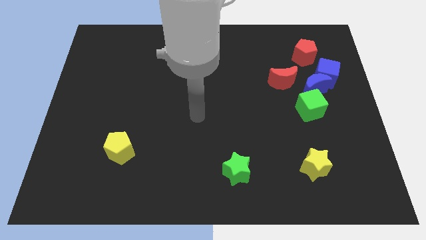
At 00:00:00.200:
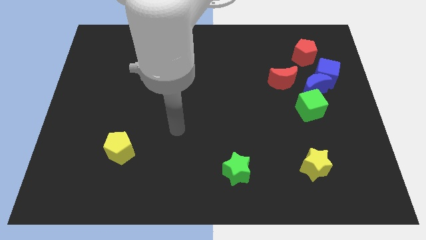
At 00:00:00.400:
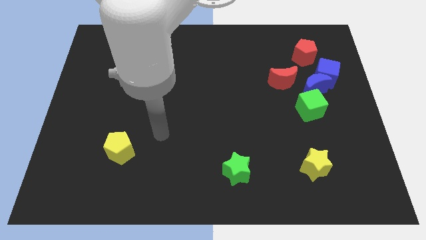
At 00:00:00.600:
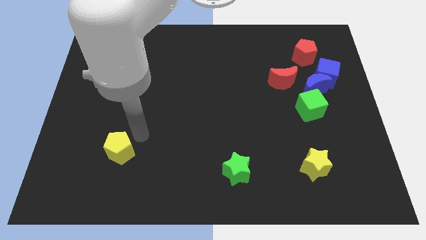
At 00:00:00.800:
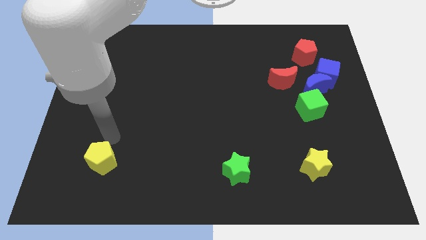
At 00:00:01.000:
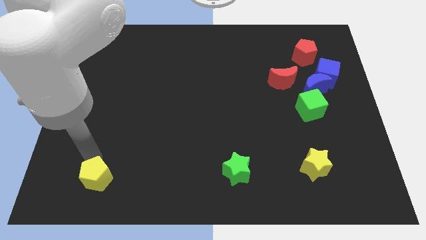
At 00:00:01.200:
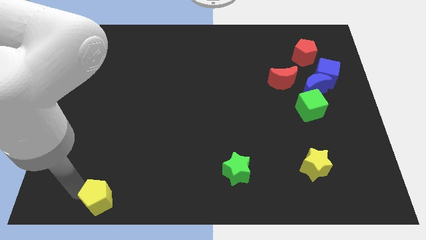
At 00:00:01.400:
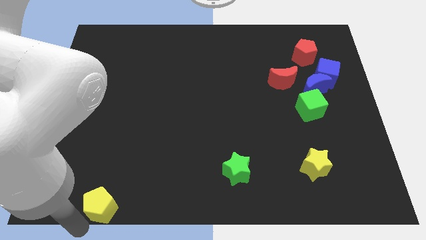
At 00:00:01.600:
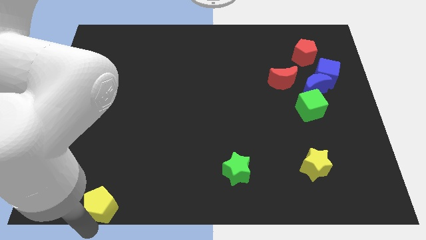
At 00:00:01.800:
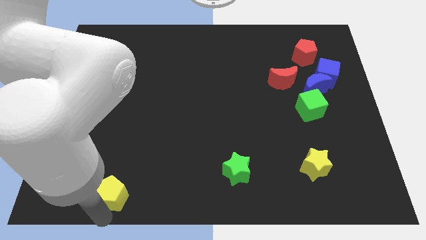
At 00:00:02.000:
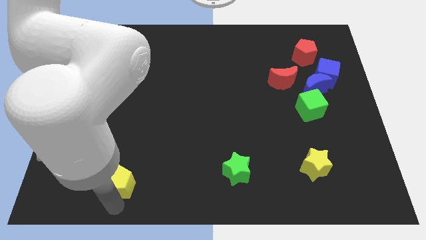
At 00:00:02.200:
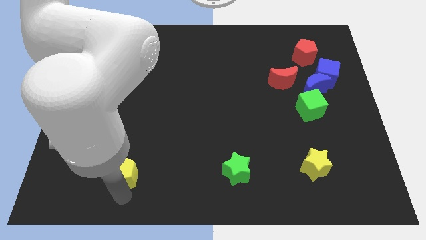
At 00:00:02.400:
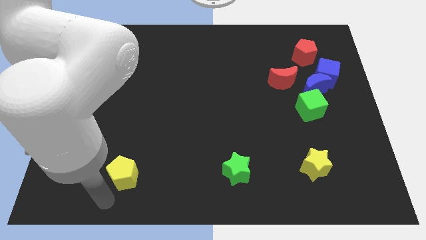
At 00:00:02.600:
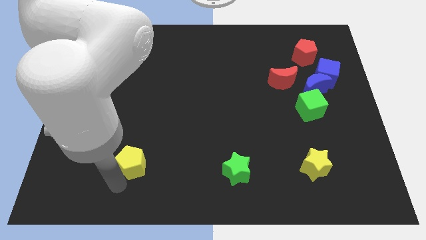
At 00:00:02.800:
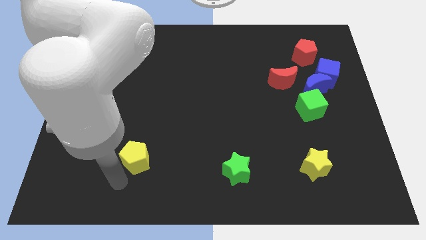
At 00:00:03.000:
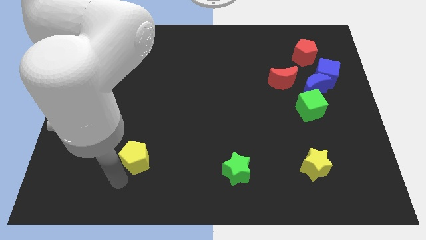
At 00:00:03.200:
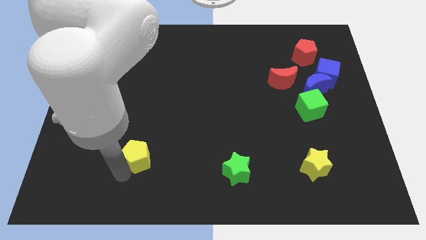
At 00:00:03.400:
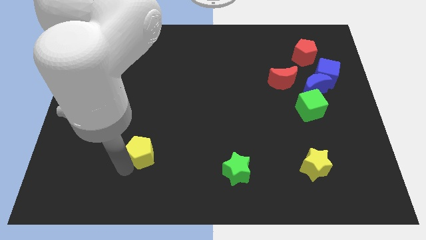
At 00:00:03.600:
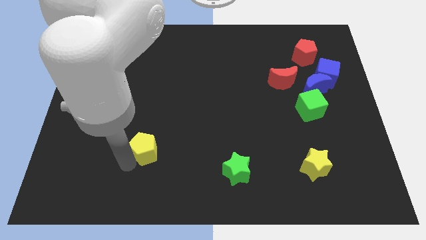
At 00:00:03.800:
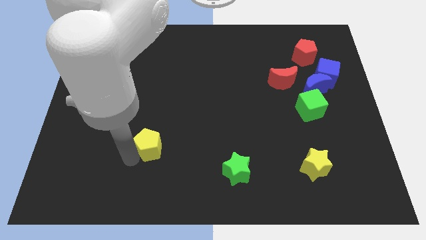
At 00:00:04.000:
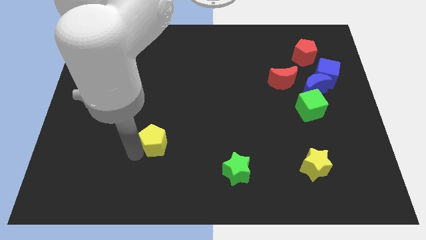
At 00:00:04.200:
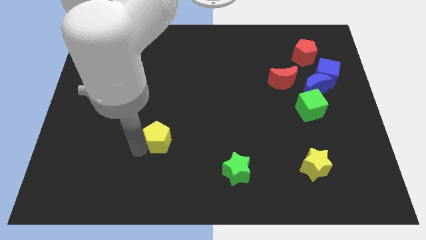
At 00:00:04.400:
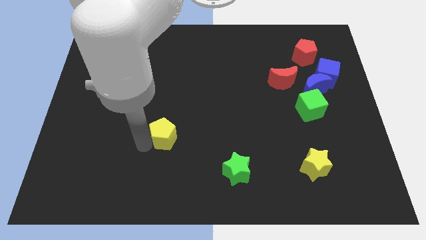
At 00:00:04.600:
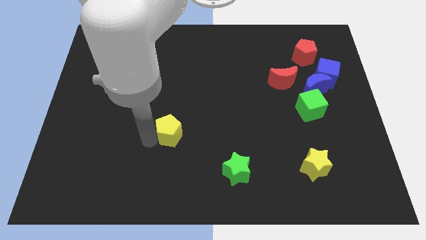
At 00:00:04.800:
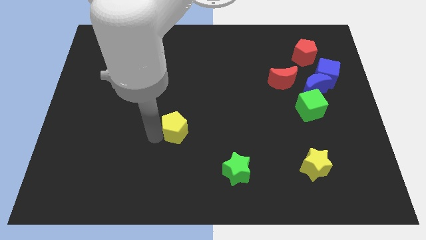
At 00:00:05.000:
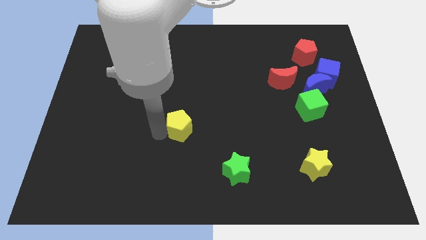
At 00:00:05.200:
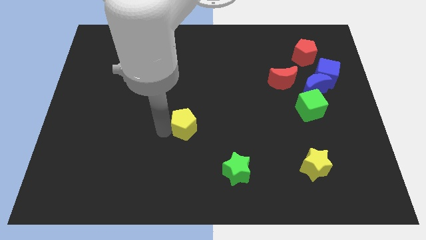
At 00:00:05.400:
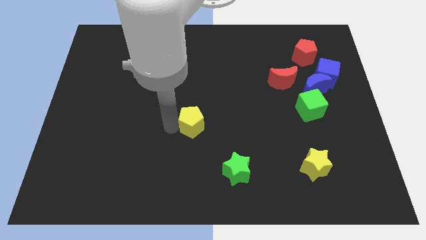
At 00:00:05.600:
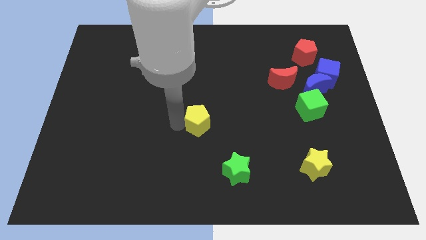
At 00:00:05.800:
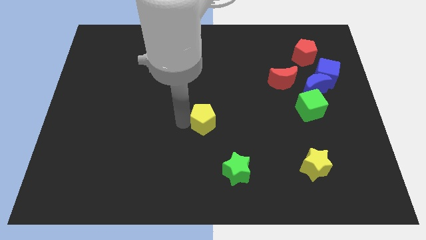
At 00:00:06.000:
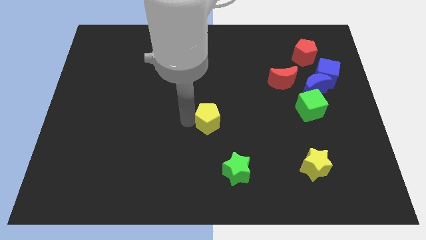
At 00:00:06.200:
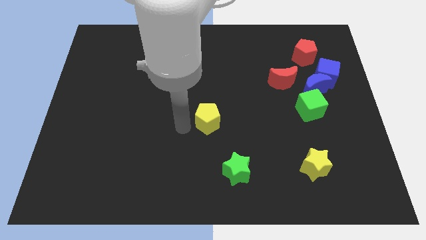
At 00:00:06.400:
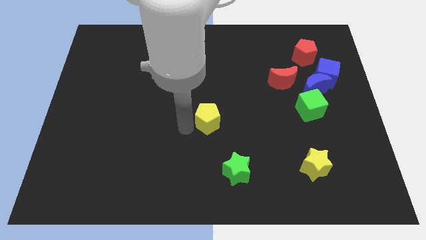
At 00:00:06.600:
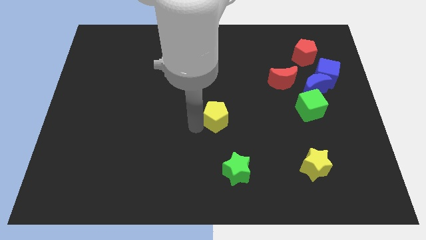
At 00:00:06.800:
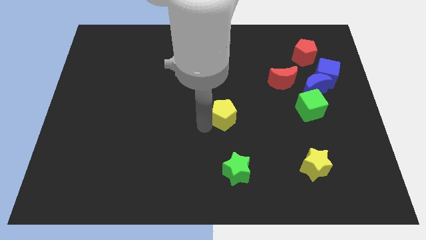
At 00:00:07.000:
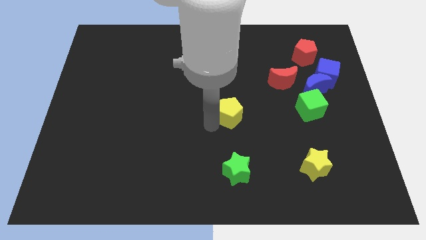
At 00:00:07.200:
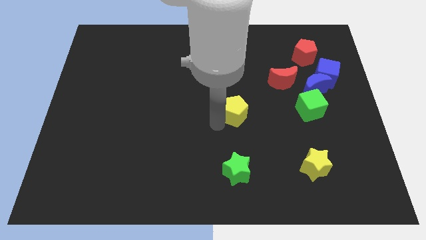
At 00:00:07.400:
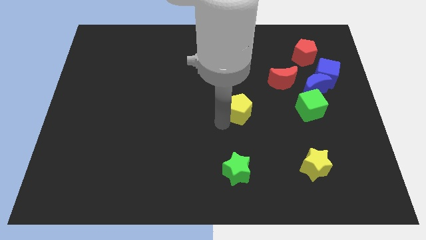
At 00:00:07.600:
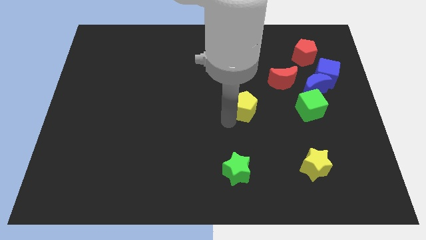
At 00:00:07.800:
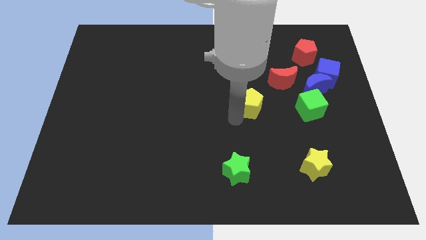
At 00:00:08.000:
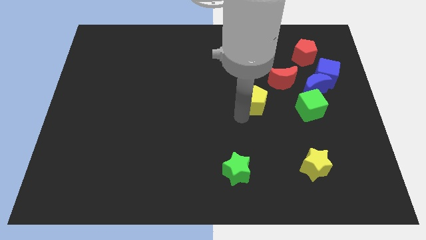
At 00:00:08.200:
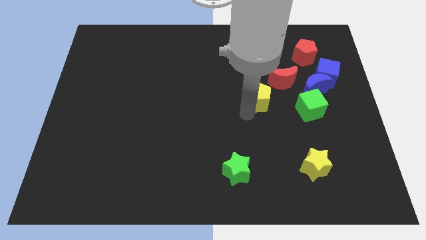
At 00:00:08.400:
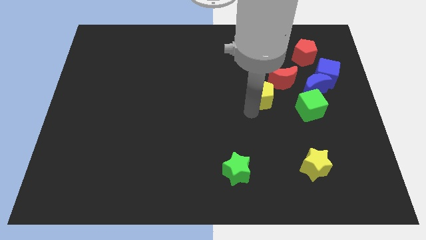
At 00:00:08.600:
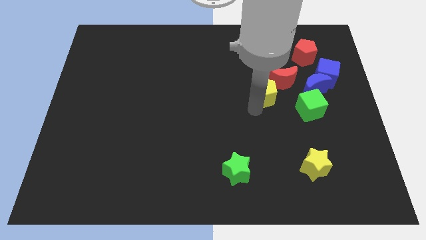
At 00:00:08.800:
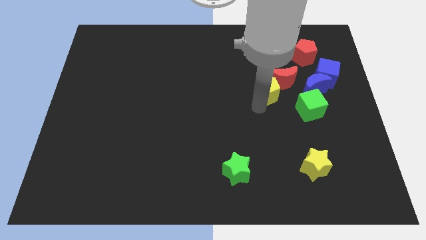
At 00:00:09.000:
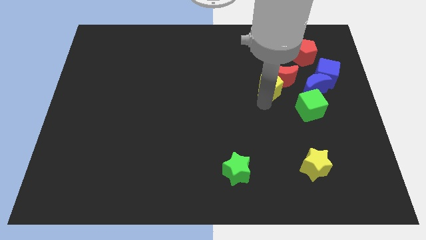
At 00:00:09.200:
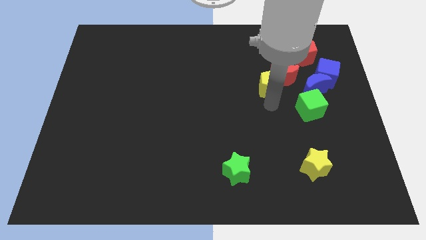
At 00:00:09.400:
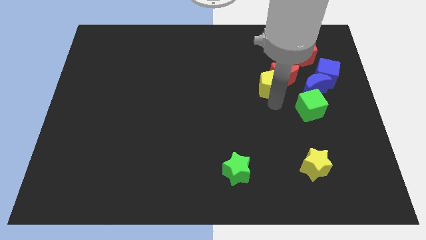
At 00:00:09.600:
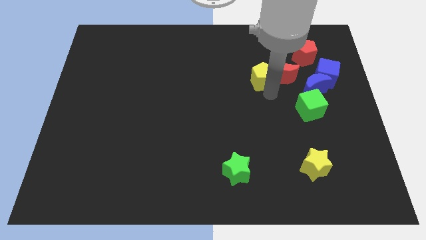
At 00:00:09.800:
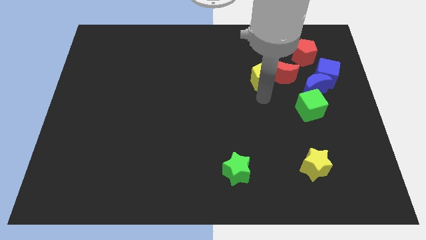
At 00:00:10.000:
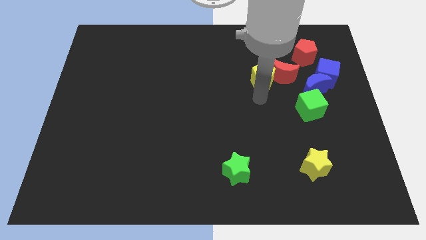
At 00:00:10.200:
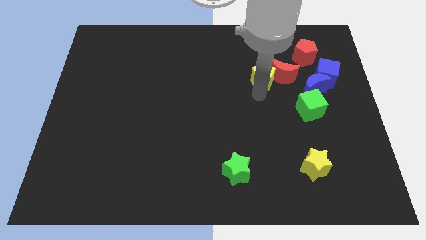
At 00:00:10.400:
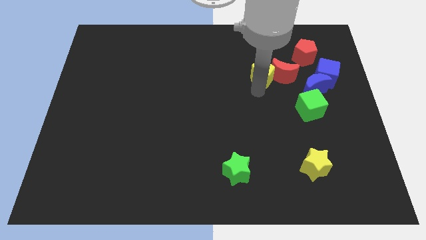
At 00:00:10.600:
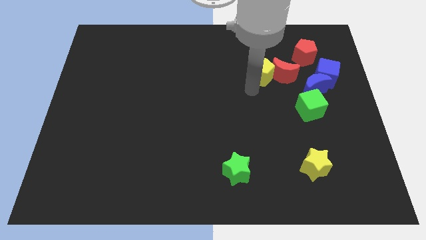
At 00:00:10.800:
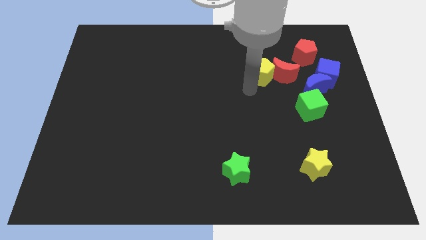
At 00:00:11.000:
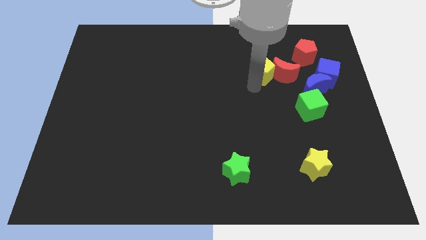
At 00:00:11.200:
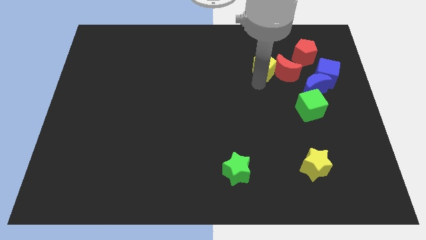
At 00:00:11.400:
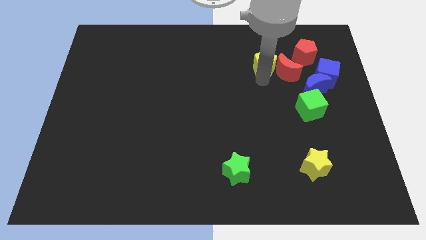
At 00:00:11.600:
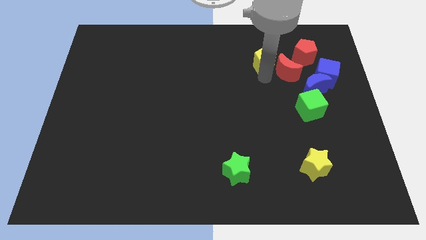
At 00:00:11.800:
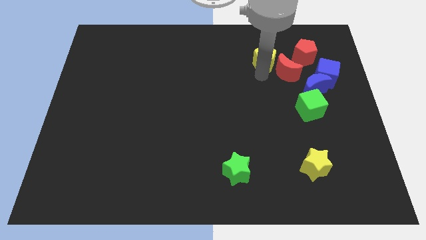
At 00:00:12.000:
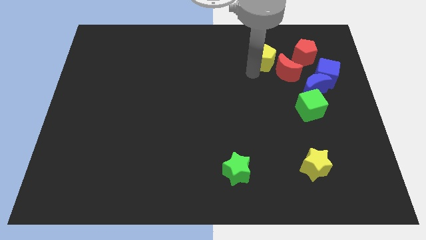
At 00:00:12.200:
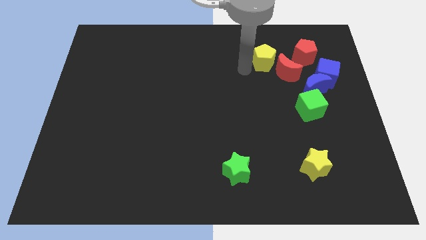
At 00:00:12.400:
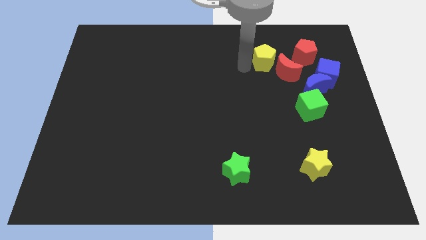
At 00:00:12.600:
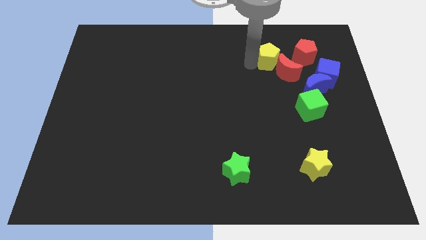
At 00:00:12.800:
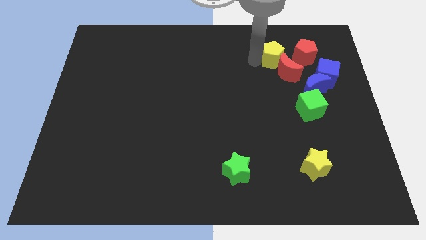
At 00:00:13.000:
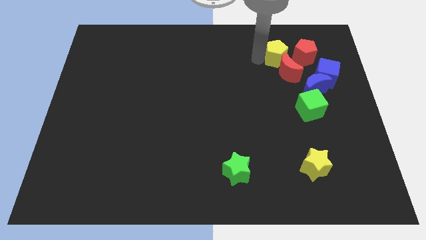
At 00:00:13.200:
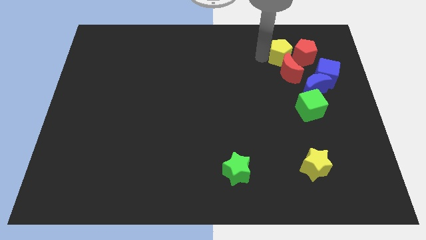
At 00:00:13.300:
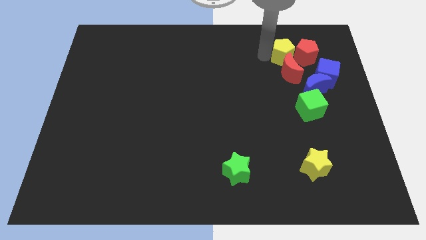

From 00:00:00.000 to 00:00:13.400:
move the yellow pentagon next to the red pentagon

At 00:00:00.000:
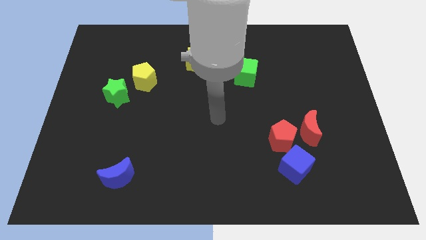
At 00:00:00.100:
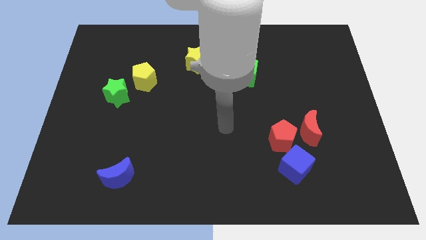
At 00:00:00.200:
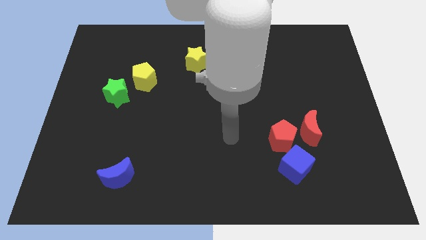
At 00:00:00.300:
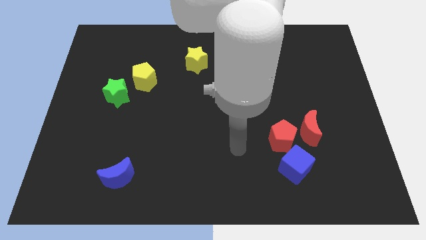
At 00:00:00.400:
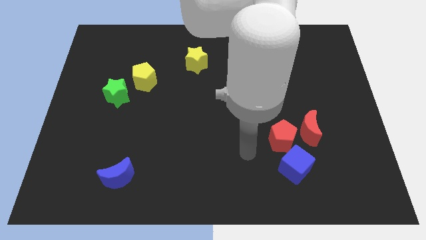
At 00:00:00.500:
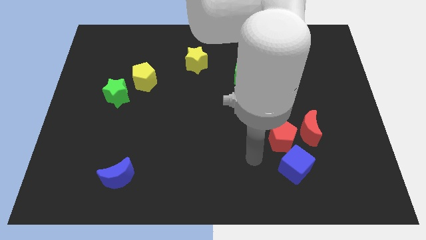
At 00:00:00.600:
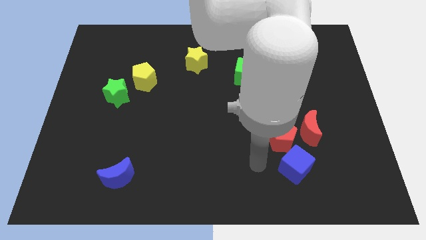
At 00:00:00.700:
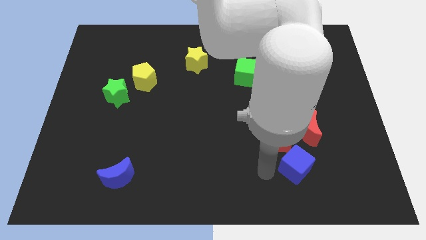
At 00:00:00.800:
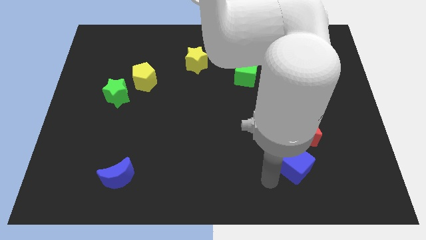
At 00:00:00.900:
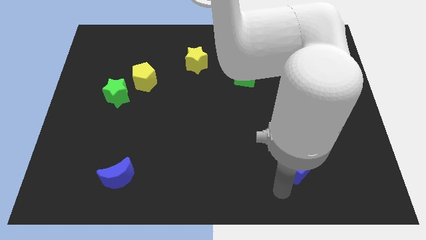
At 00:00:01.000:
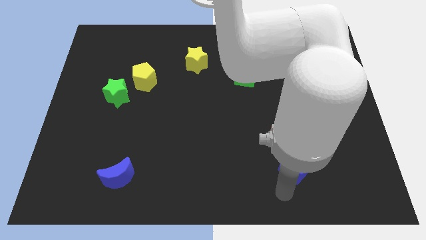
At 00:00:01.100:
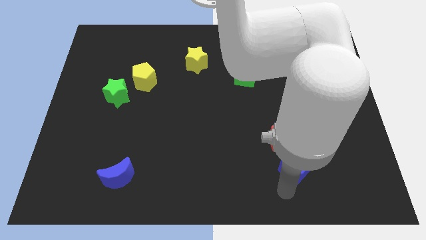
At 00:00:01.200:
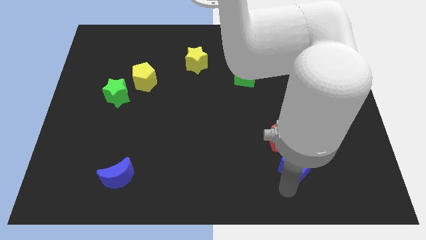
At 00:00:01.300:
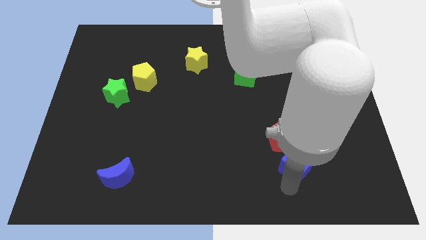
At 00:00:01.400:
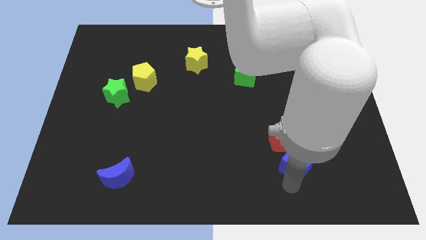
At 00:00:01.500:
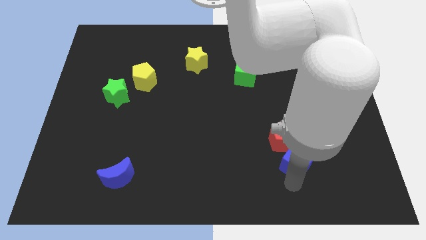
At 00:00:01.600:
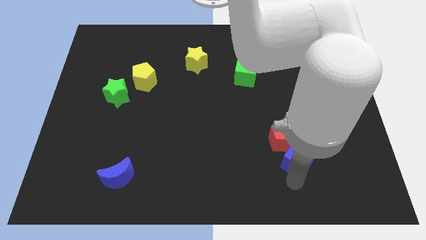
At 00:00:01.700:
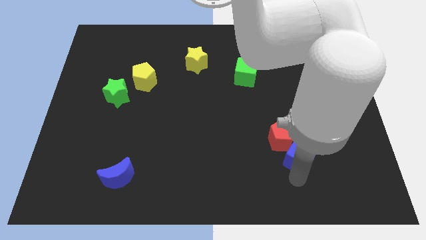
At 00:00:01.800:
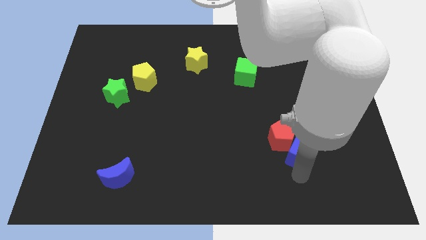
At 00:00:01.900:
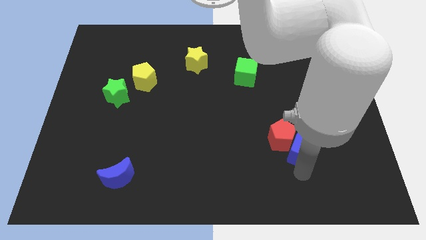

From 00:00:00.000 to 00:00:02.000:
slide the blue cube next to the red moon
